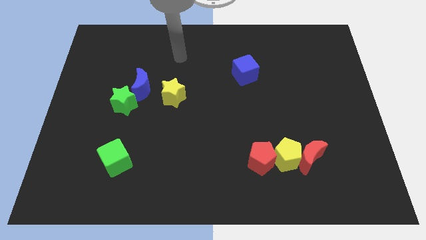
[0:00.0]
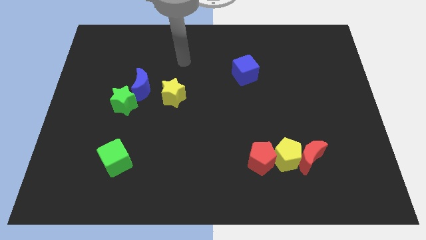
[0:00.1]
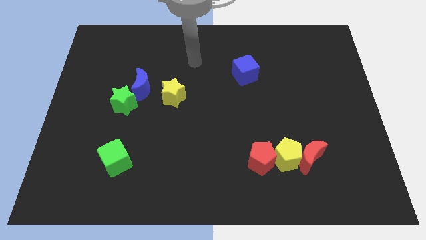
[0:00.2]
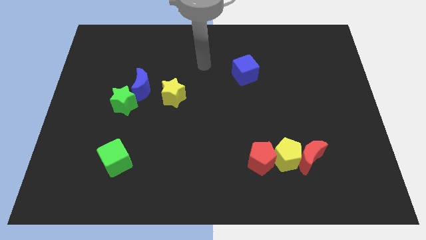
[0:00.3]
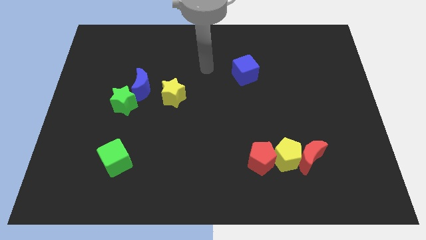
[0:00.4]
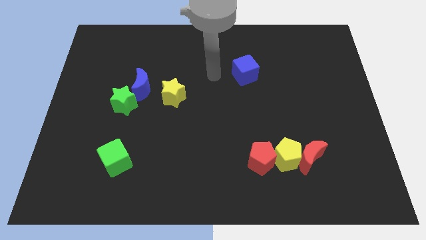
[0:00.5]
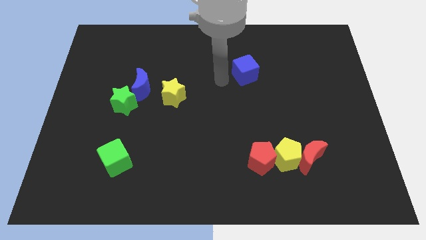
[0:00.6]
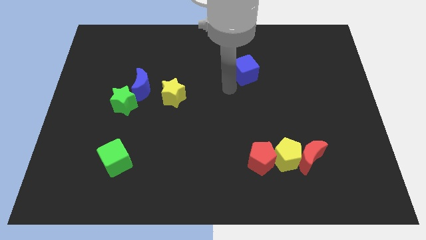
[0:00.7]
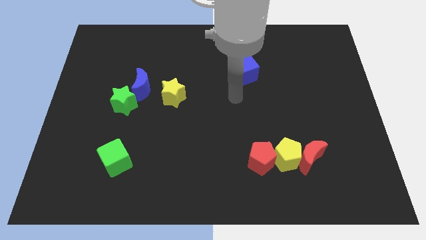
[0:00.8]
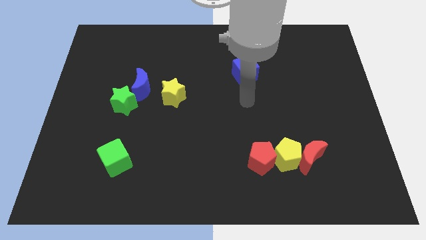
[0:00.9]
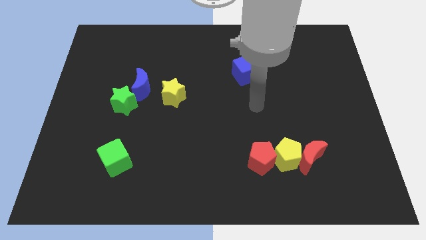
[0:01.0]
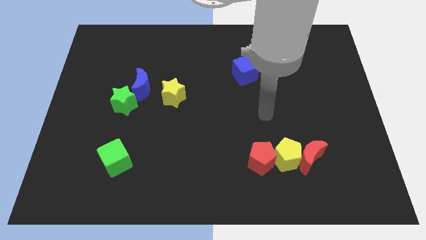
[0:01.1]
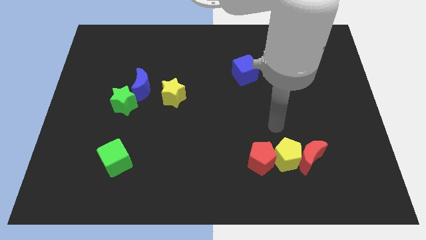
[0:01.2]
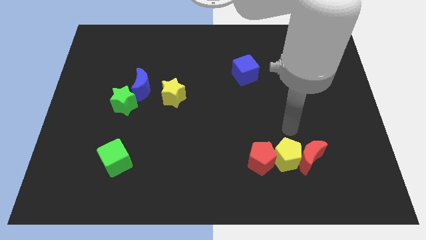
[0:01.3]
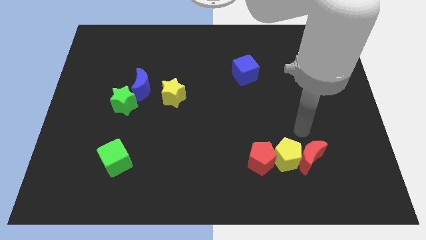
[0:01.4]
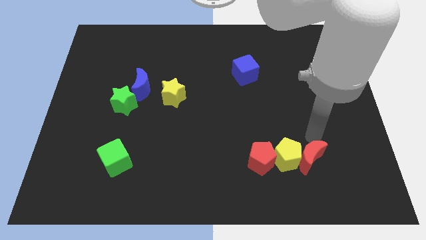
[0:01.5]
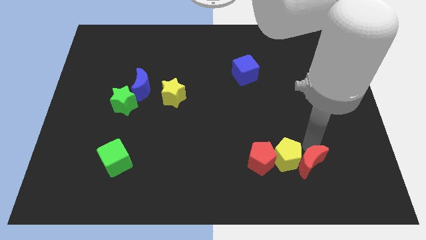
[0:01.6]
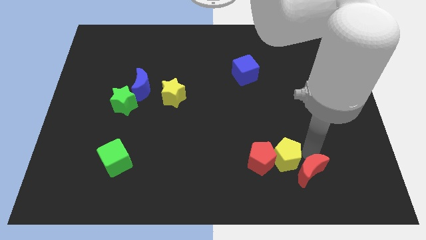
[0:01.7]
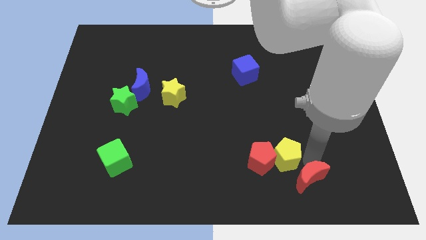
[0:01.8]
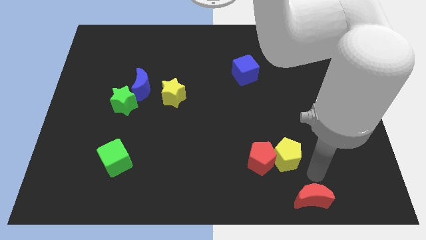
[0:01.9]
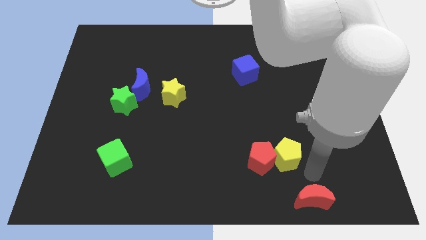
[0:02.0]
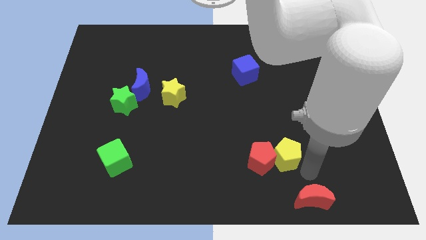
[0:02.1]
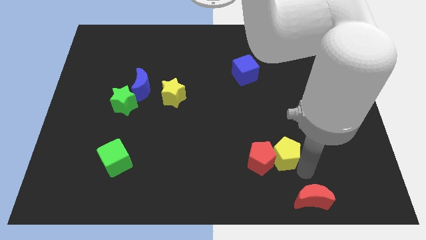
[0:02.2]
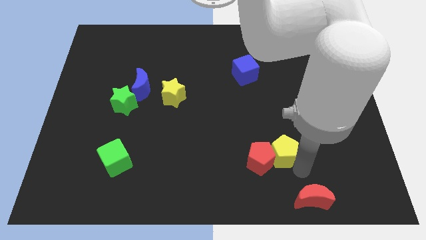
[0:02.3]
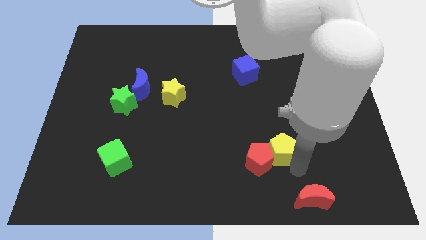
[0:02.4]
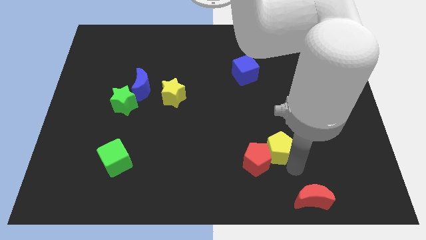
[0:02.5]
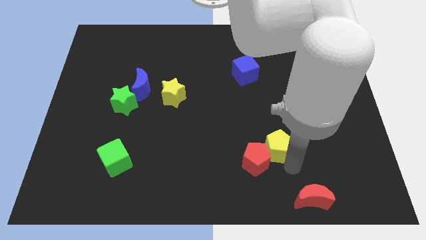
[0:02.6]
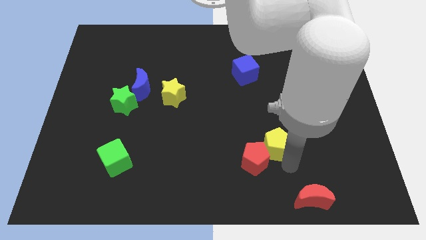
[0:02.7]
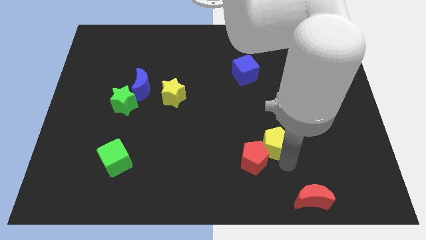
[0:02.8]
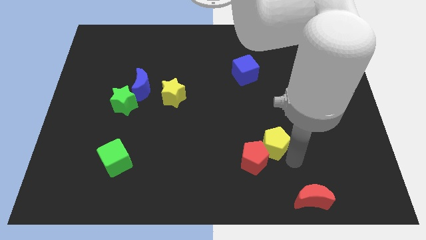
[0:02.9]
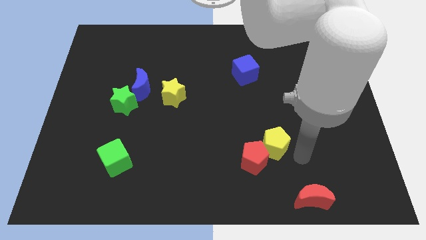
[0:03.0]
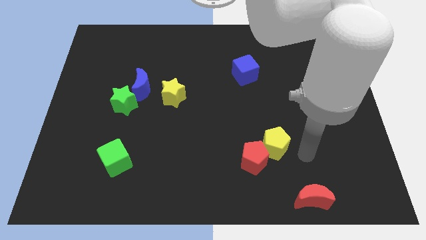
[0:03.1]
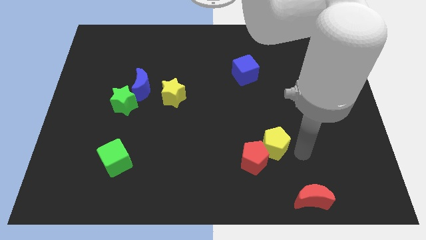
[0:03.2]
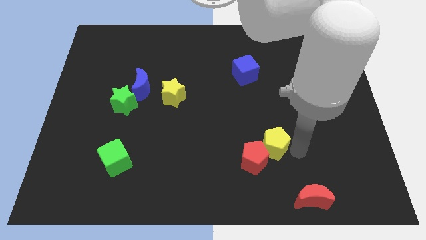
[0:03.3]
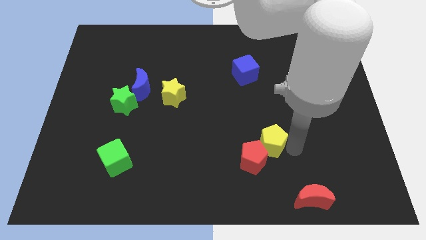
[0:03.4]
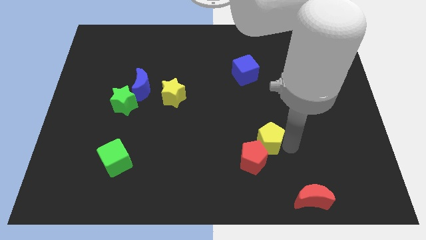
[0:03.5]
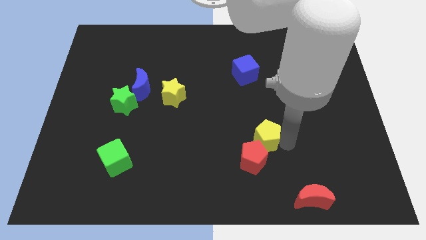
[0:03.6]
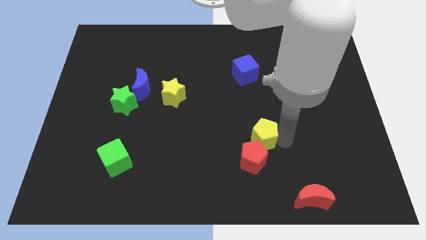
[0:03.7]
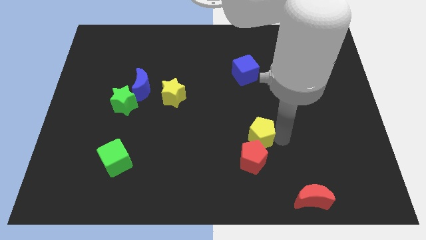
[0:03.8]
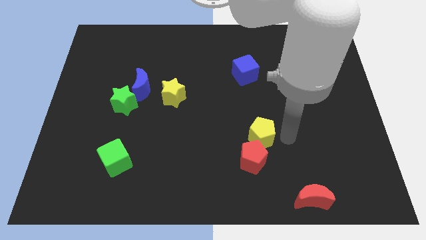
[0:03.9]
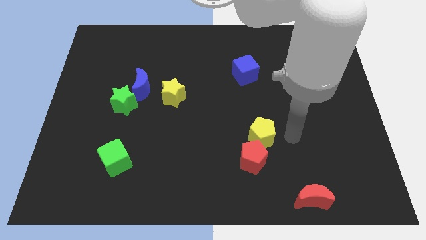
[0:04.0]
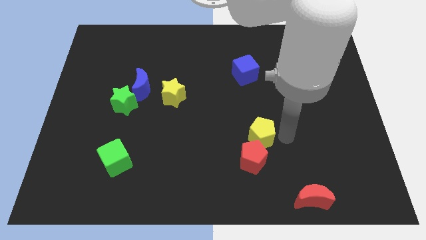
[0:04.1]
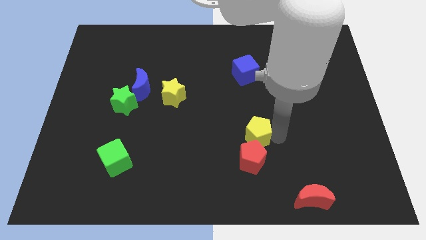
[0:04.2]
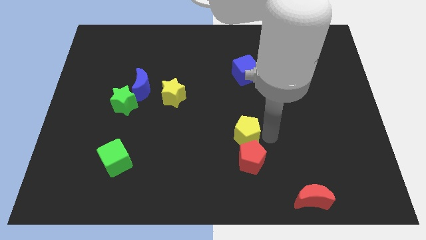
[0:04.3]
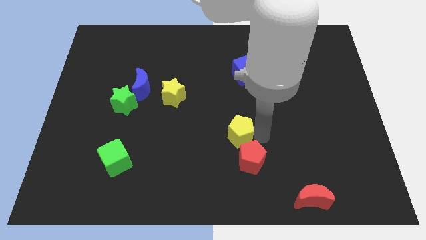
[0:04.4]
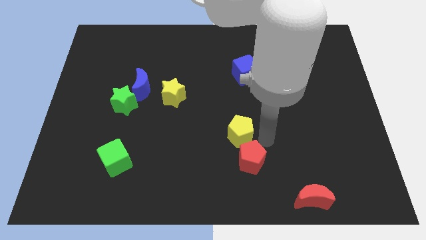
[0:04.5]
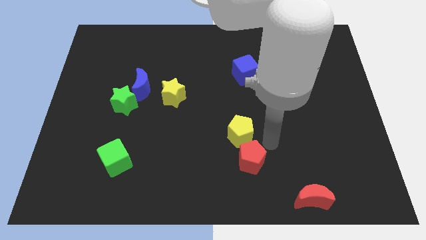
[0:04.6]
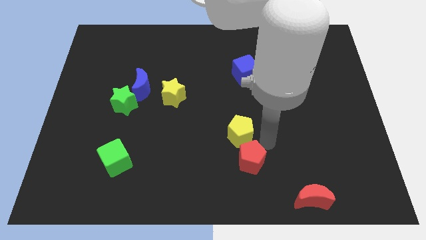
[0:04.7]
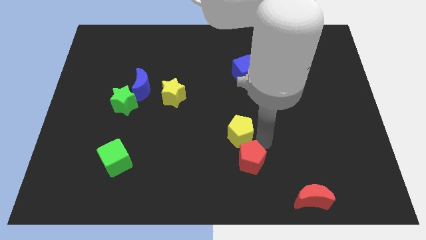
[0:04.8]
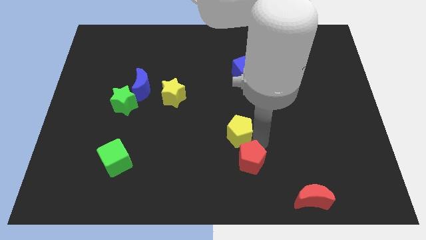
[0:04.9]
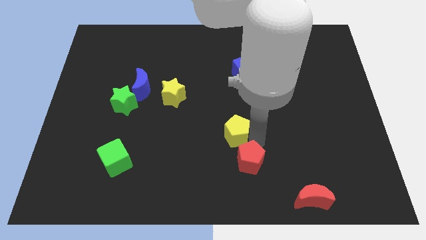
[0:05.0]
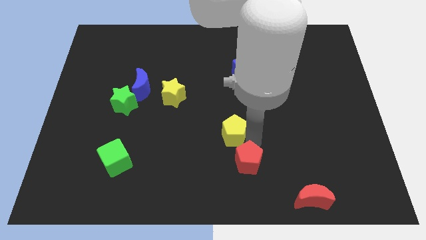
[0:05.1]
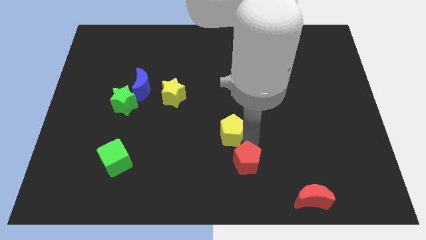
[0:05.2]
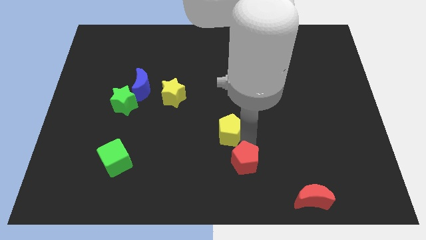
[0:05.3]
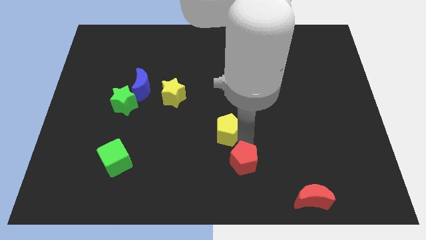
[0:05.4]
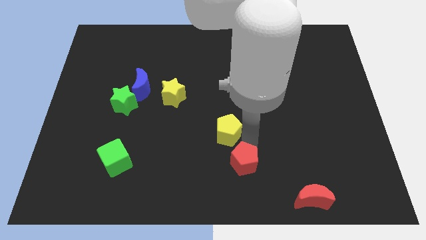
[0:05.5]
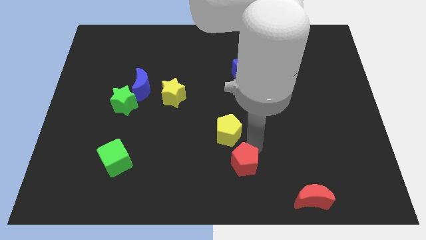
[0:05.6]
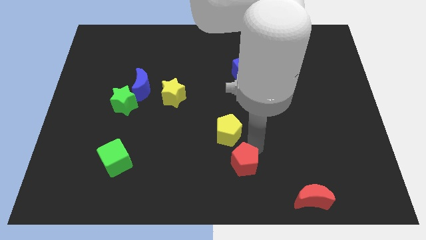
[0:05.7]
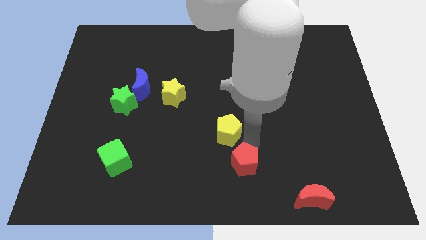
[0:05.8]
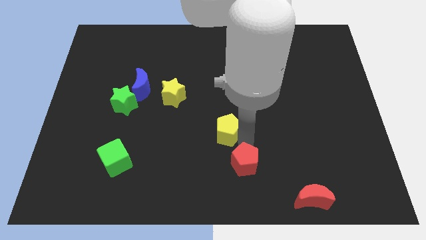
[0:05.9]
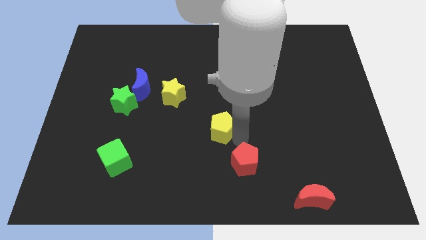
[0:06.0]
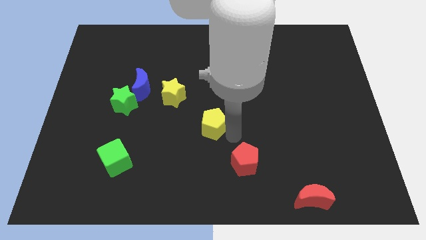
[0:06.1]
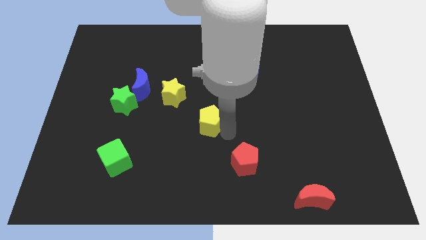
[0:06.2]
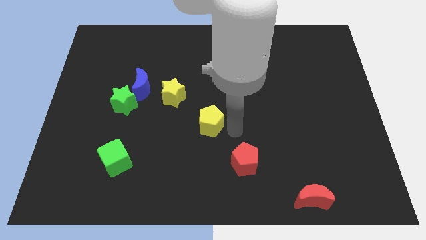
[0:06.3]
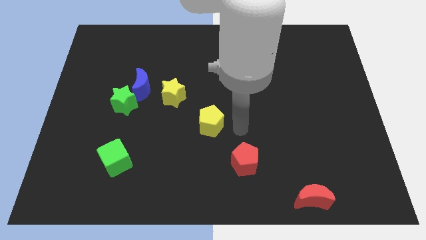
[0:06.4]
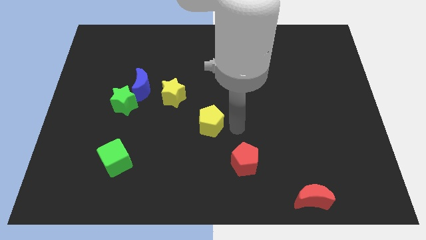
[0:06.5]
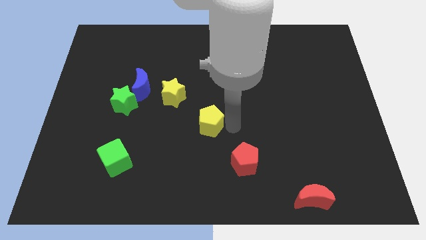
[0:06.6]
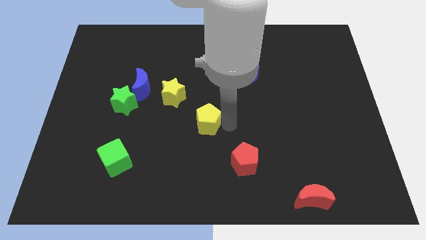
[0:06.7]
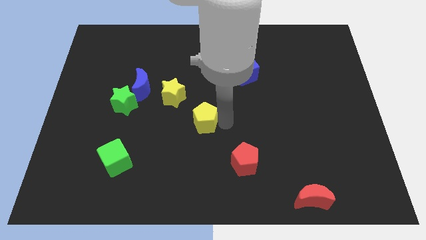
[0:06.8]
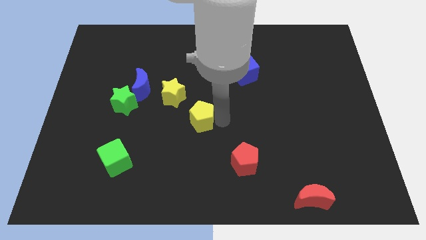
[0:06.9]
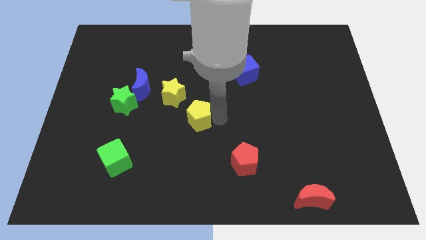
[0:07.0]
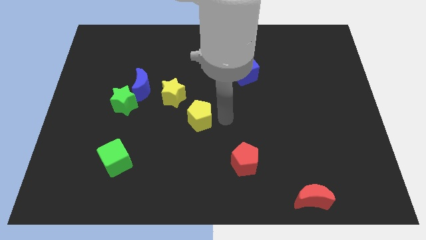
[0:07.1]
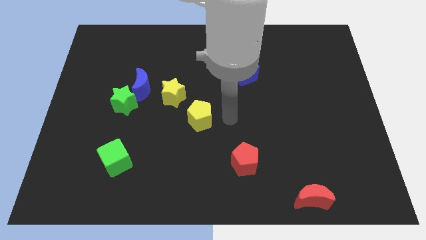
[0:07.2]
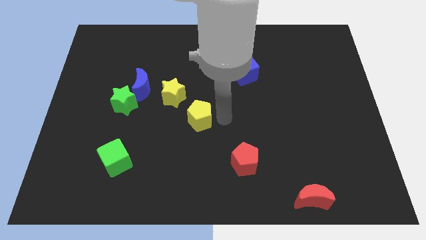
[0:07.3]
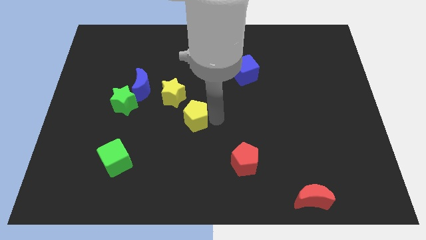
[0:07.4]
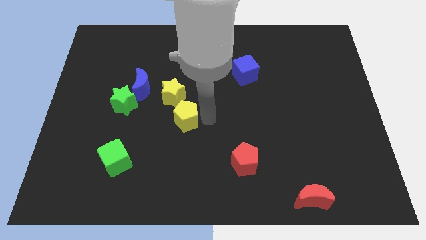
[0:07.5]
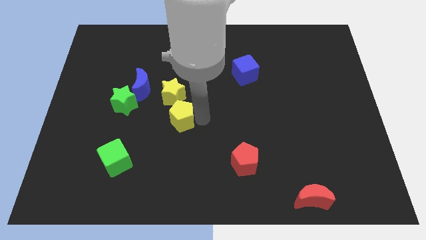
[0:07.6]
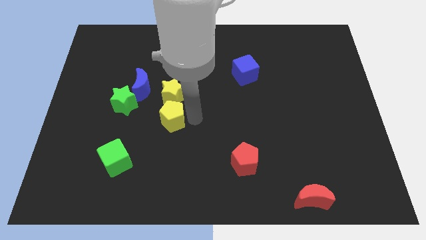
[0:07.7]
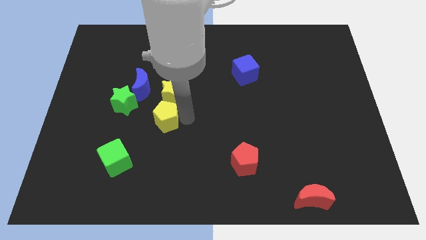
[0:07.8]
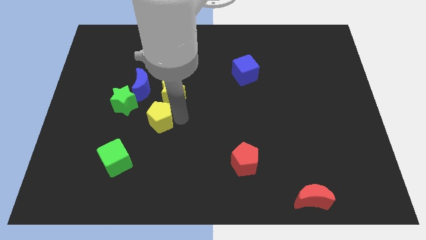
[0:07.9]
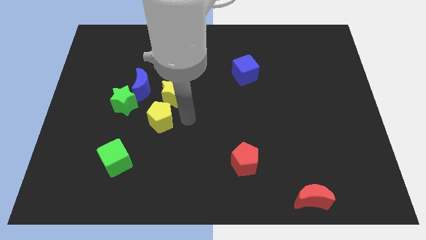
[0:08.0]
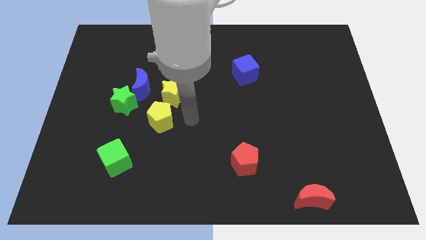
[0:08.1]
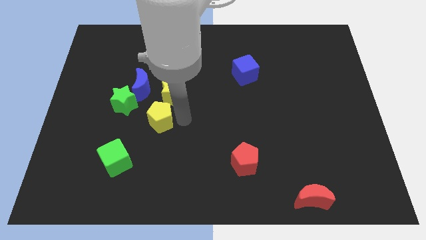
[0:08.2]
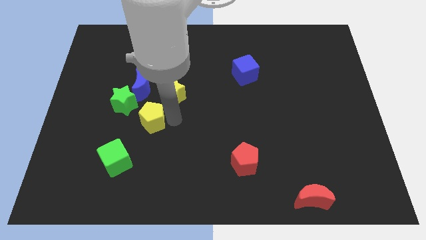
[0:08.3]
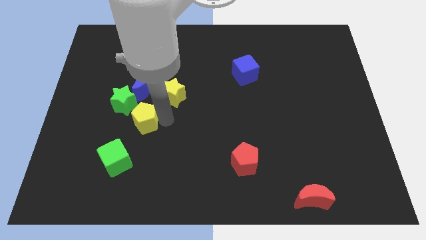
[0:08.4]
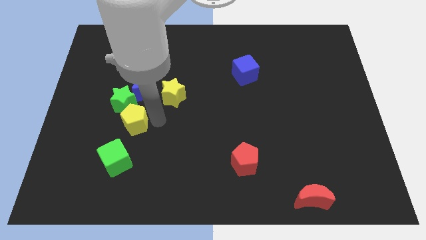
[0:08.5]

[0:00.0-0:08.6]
put the yellow pentagon to the top of the green cube
